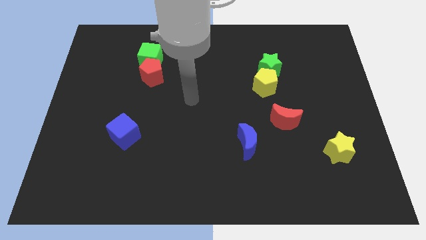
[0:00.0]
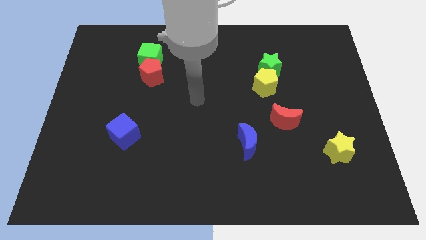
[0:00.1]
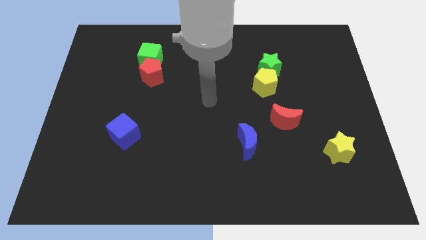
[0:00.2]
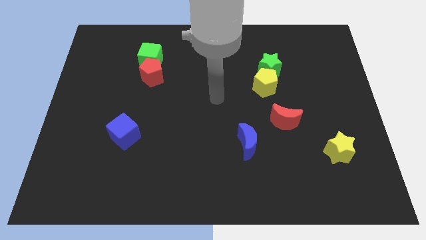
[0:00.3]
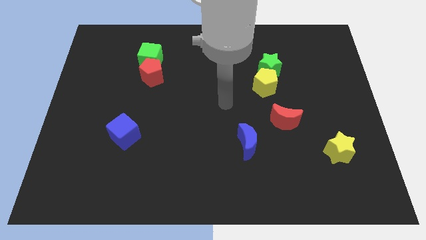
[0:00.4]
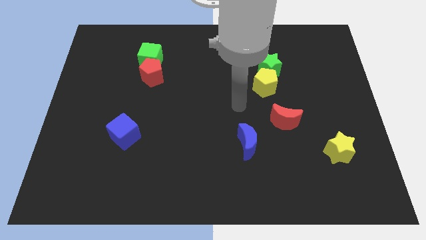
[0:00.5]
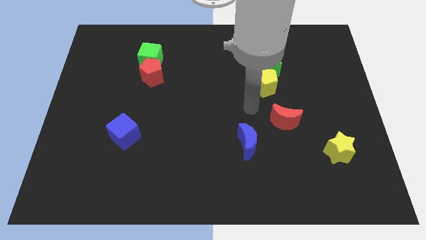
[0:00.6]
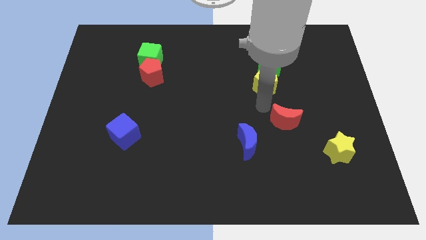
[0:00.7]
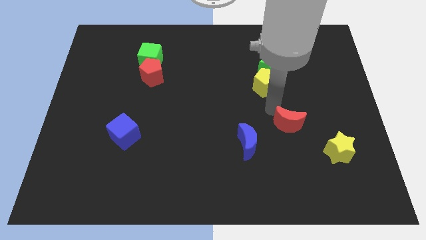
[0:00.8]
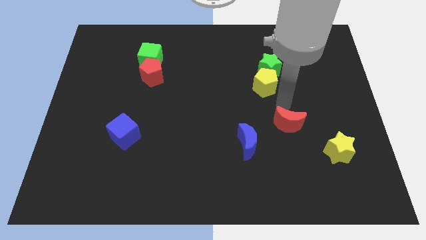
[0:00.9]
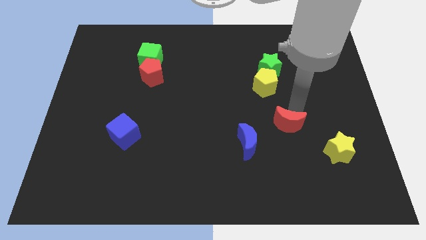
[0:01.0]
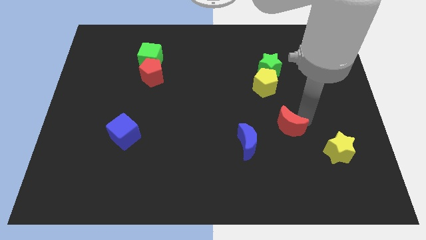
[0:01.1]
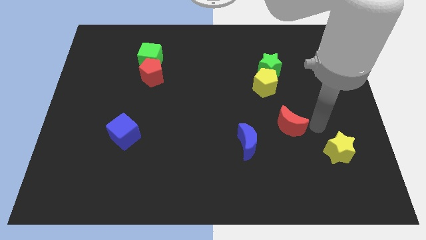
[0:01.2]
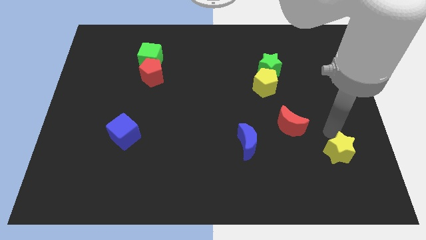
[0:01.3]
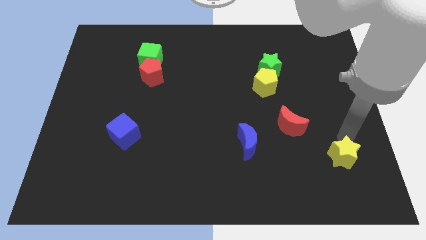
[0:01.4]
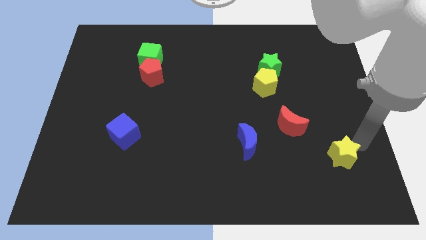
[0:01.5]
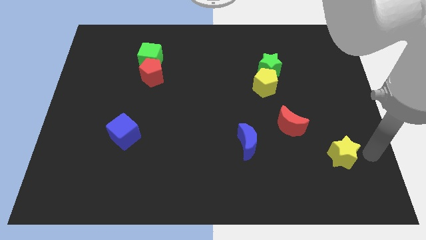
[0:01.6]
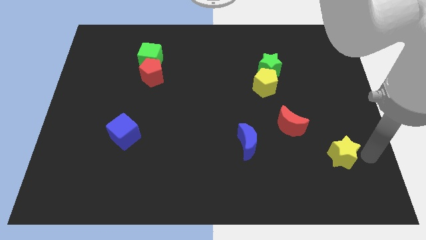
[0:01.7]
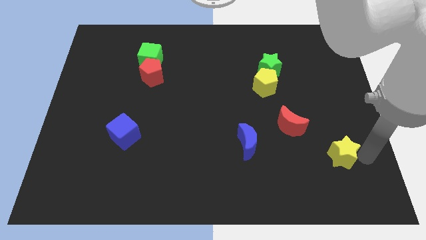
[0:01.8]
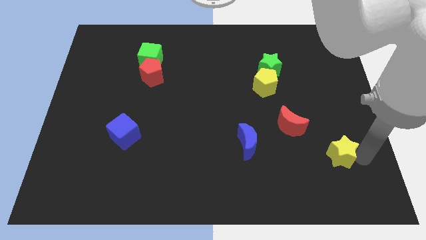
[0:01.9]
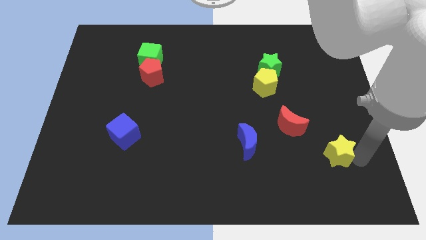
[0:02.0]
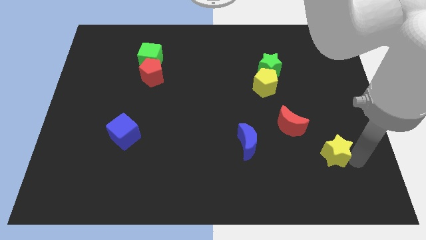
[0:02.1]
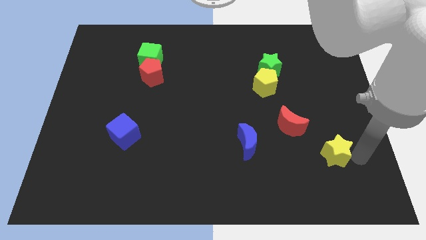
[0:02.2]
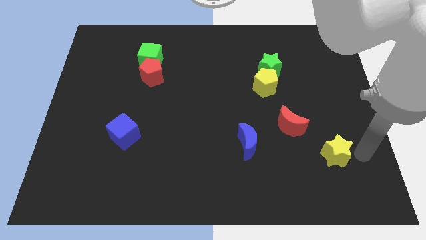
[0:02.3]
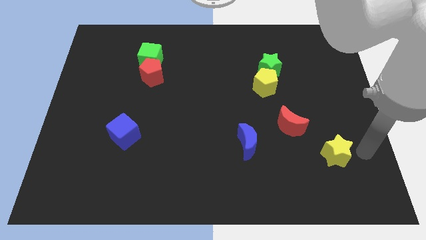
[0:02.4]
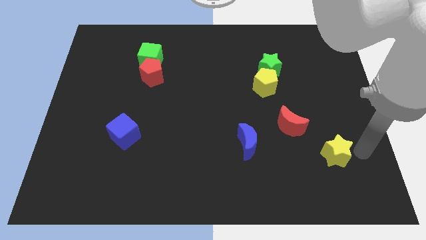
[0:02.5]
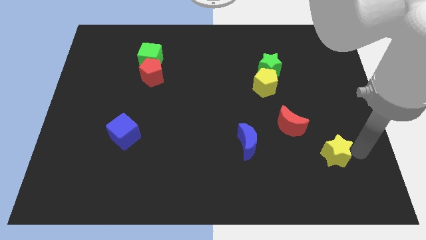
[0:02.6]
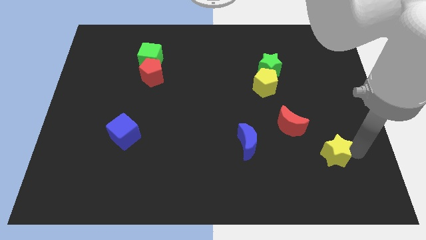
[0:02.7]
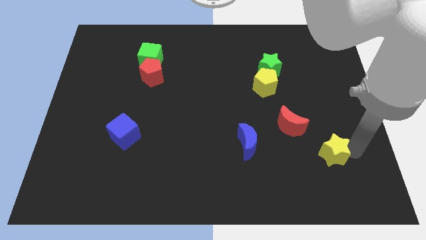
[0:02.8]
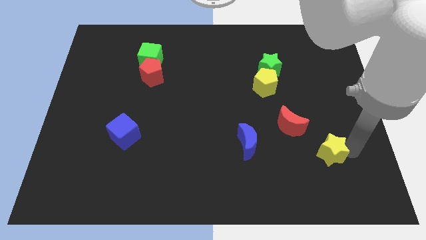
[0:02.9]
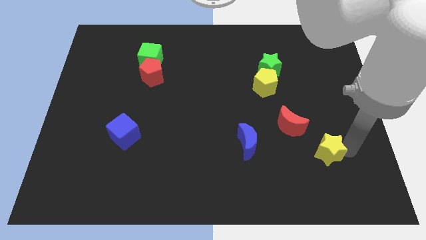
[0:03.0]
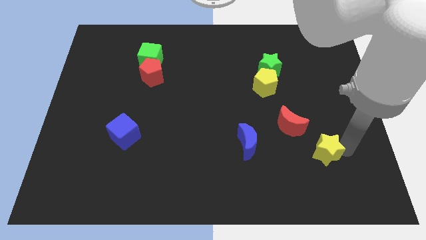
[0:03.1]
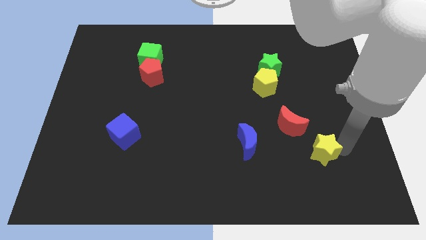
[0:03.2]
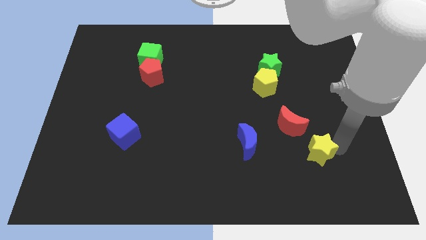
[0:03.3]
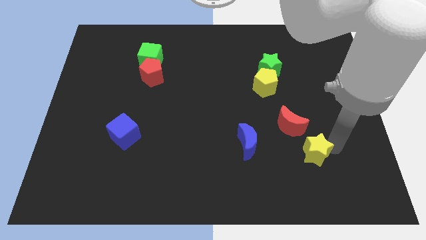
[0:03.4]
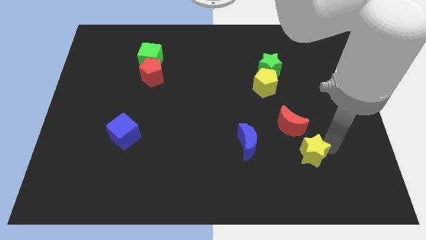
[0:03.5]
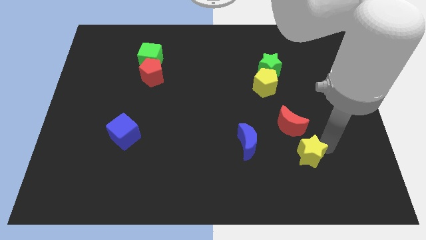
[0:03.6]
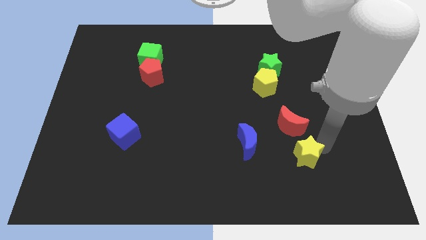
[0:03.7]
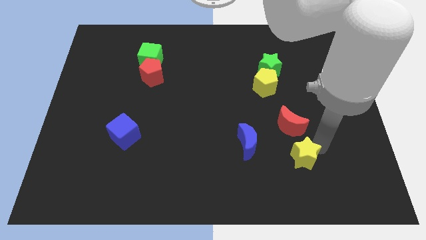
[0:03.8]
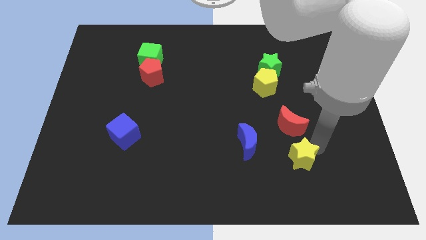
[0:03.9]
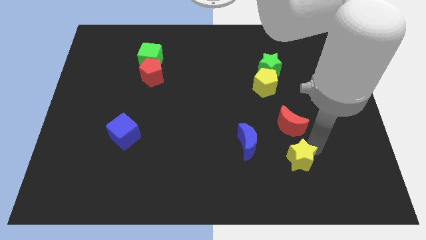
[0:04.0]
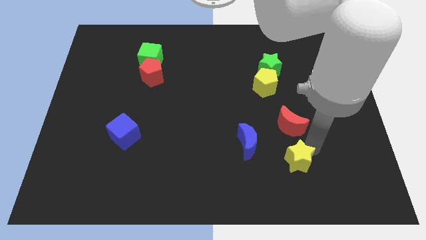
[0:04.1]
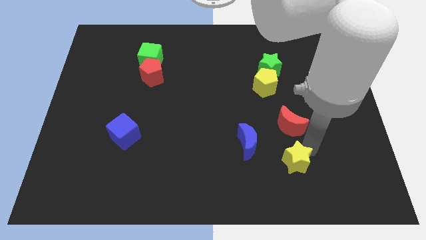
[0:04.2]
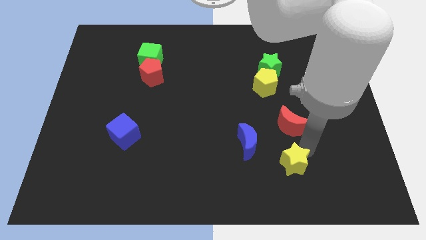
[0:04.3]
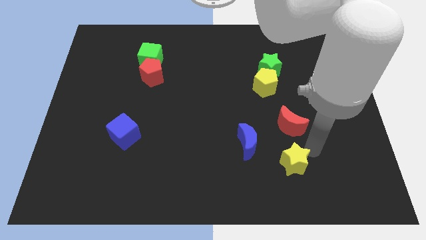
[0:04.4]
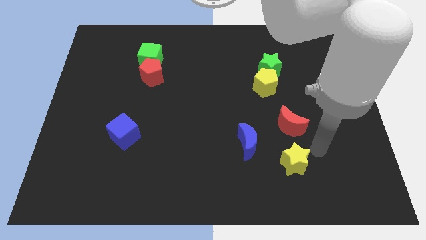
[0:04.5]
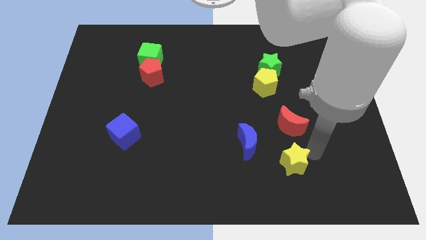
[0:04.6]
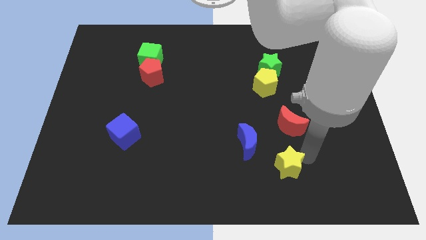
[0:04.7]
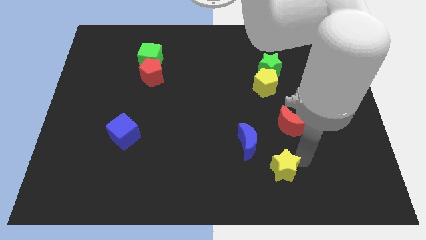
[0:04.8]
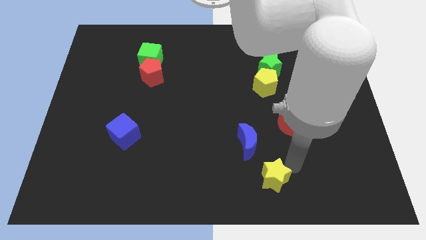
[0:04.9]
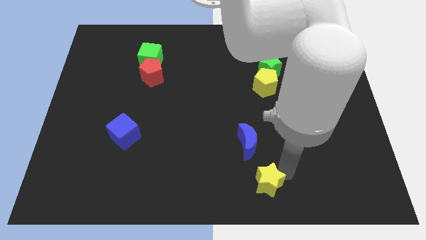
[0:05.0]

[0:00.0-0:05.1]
move the yellow star to the bottom side

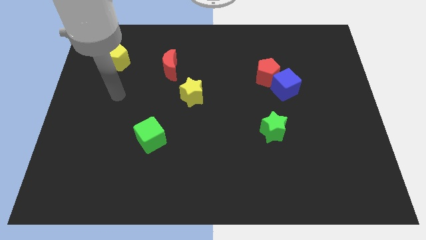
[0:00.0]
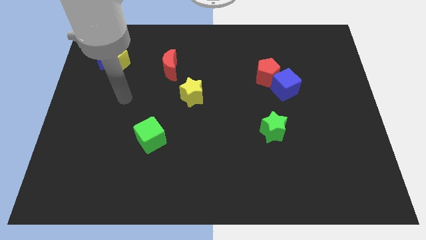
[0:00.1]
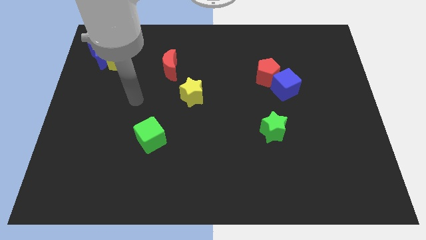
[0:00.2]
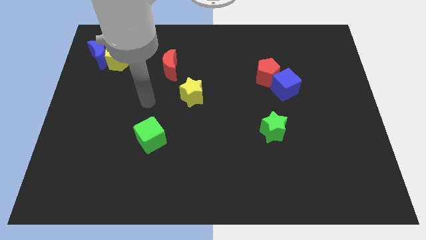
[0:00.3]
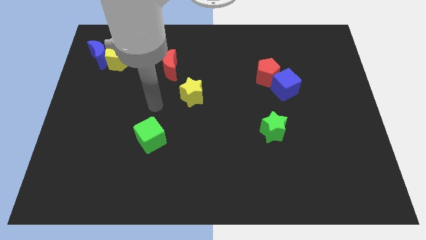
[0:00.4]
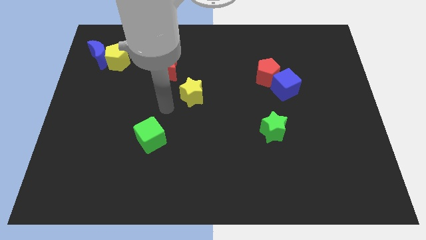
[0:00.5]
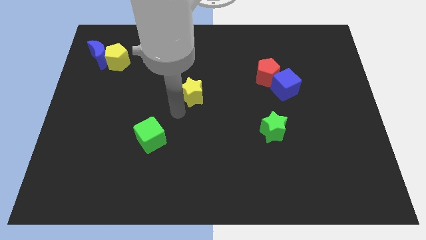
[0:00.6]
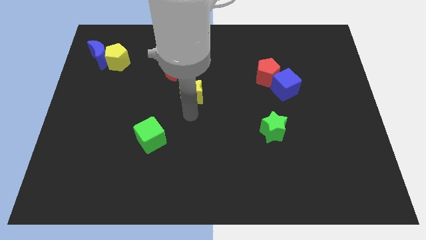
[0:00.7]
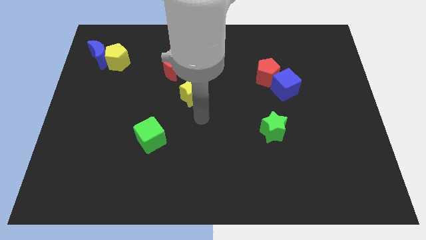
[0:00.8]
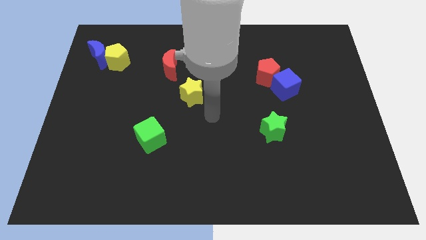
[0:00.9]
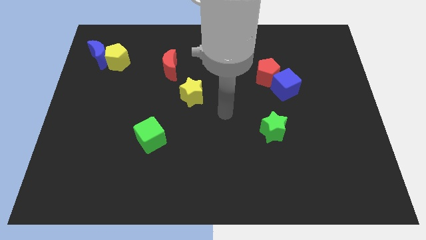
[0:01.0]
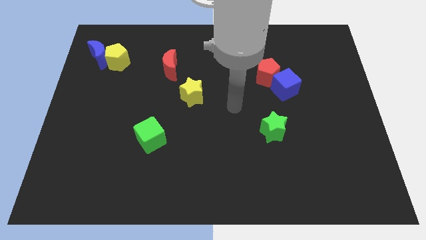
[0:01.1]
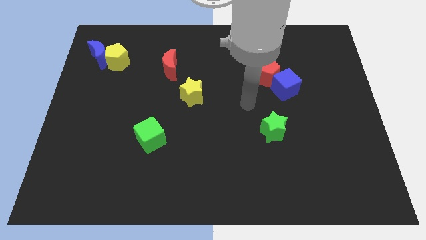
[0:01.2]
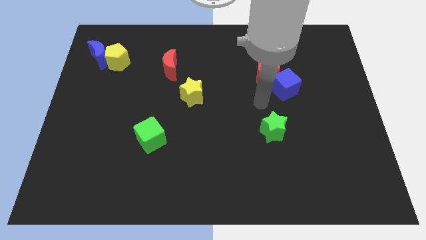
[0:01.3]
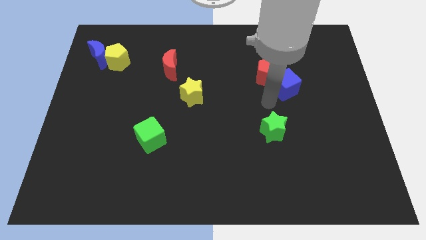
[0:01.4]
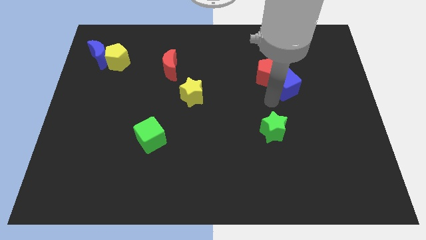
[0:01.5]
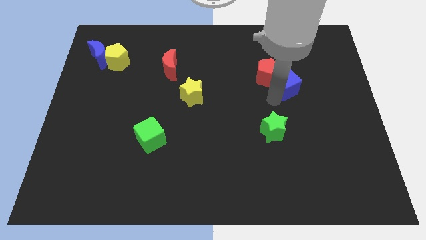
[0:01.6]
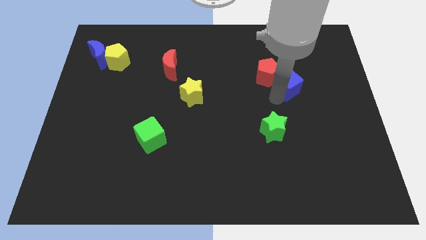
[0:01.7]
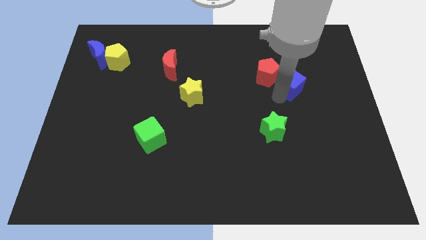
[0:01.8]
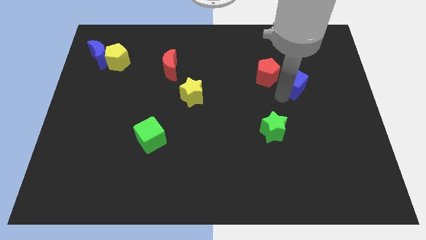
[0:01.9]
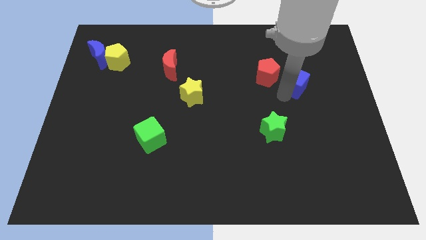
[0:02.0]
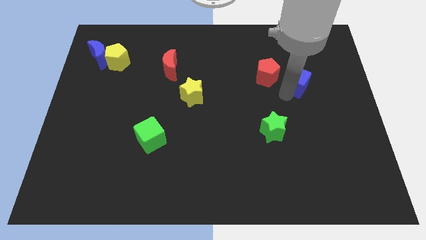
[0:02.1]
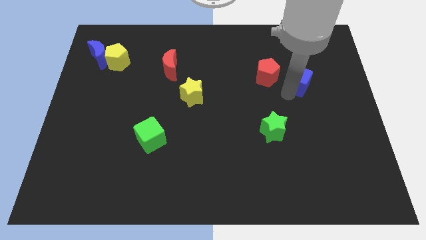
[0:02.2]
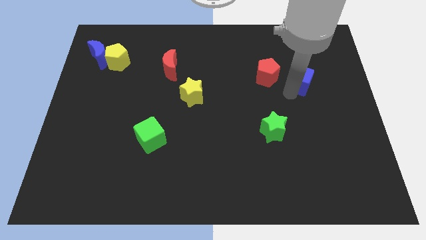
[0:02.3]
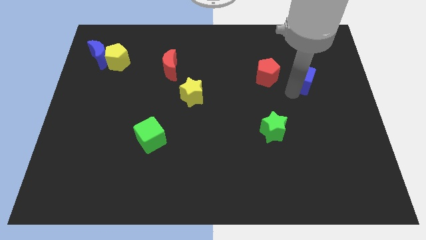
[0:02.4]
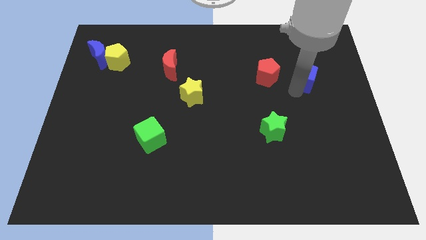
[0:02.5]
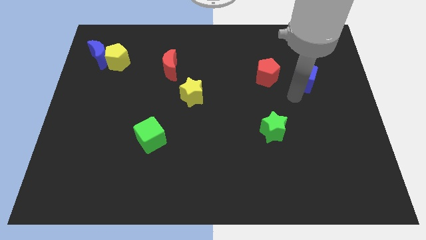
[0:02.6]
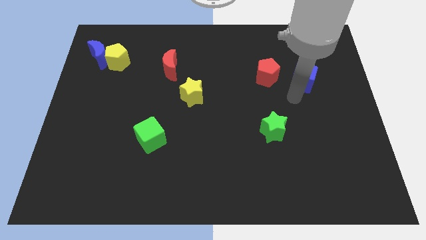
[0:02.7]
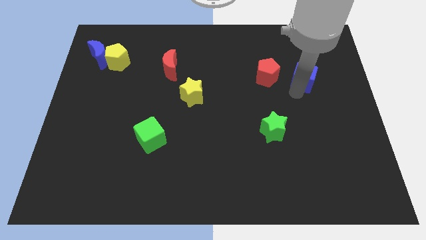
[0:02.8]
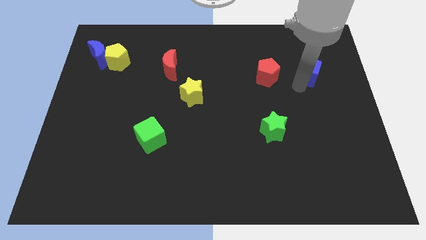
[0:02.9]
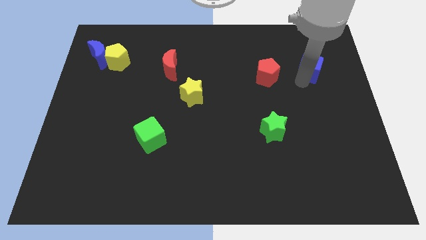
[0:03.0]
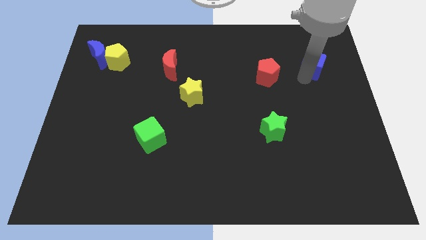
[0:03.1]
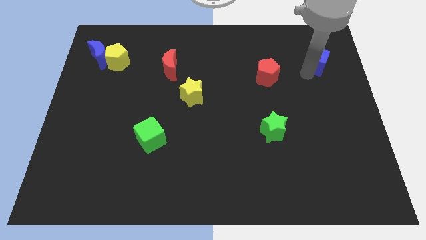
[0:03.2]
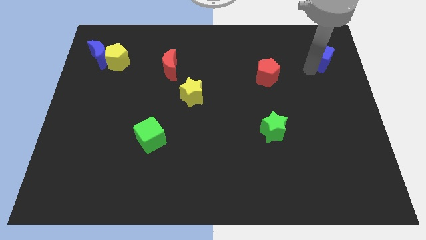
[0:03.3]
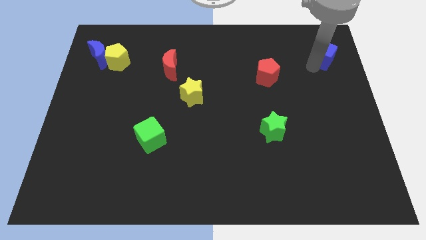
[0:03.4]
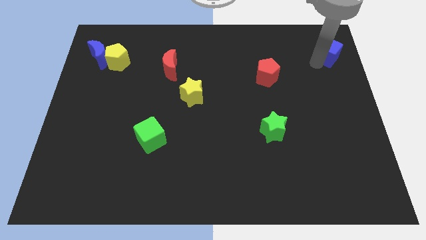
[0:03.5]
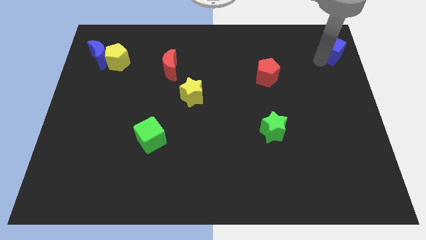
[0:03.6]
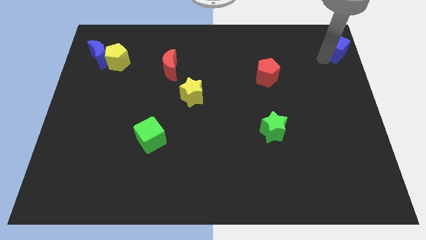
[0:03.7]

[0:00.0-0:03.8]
push the blue cube to the upper right corner
